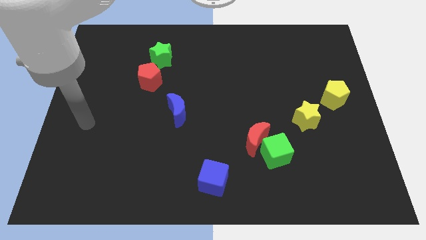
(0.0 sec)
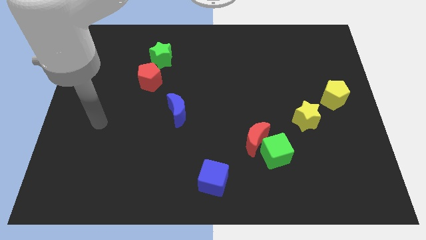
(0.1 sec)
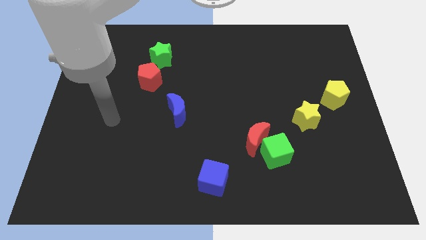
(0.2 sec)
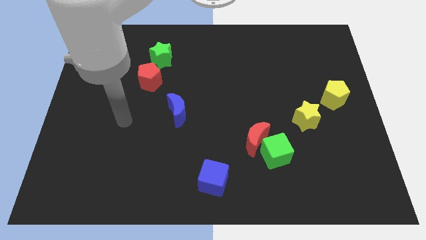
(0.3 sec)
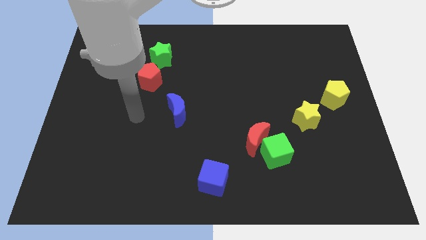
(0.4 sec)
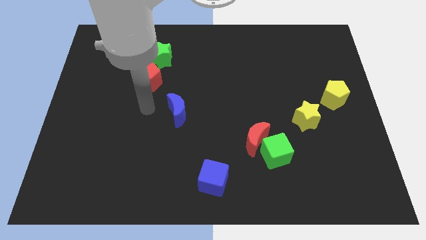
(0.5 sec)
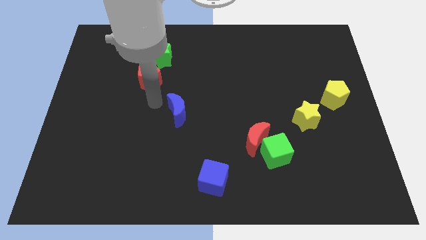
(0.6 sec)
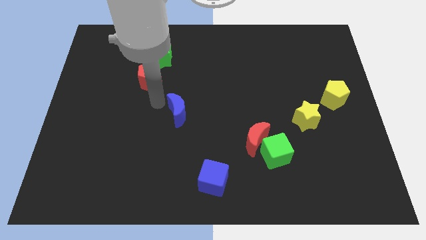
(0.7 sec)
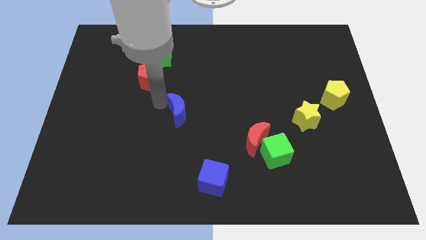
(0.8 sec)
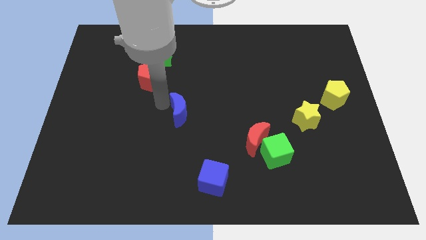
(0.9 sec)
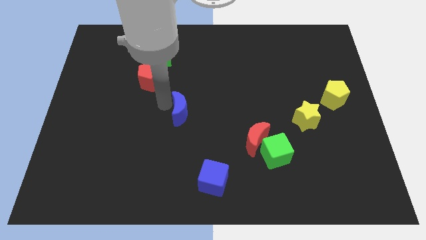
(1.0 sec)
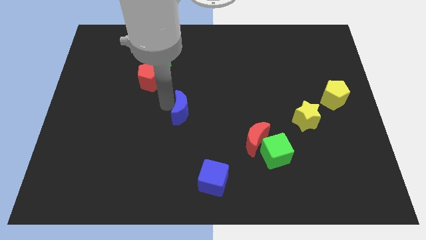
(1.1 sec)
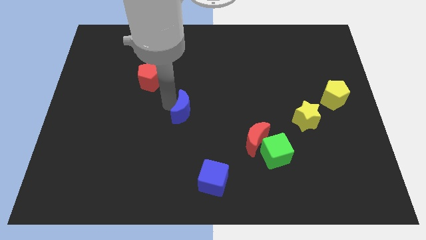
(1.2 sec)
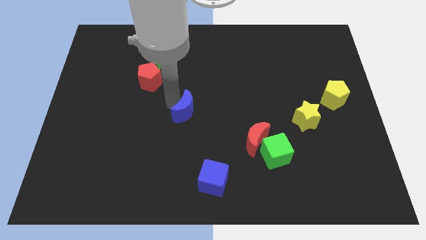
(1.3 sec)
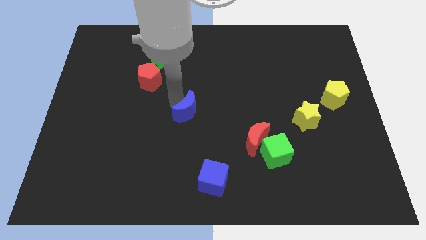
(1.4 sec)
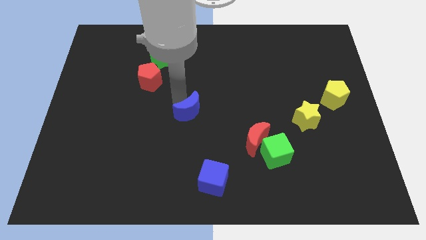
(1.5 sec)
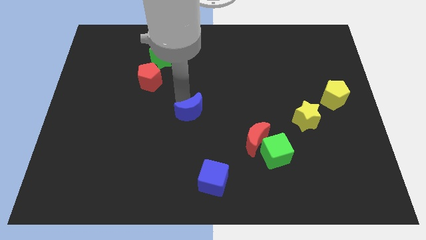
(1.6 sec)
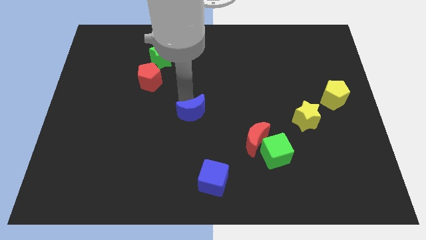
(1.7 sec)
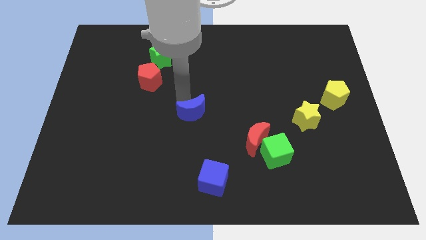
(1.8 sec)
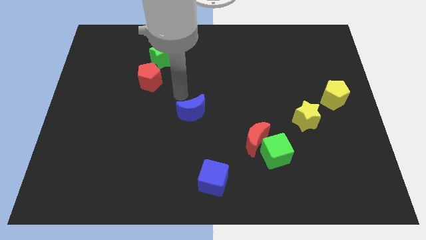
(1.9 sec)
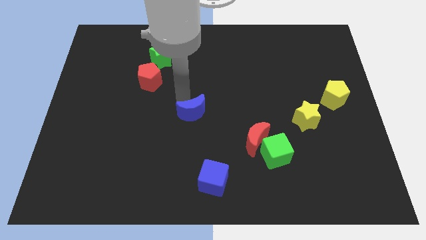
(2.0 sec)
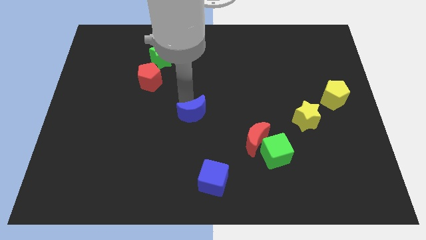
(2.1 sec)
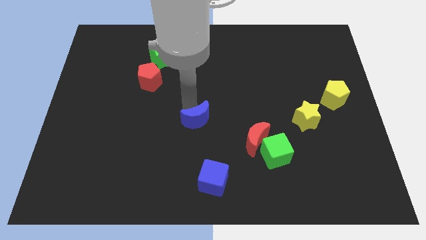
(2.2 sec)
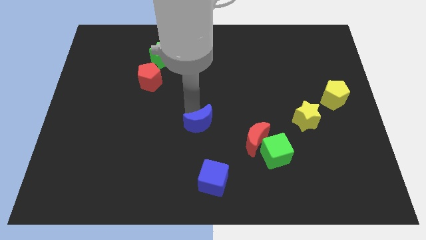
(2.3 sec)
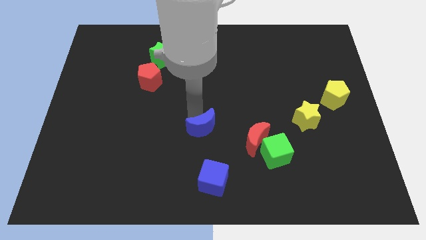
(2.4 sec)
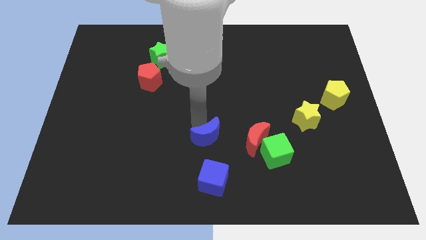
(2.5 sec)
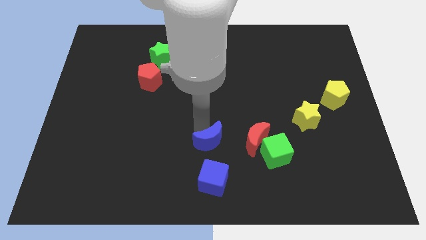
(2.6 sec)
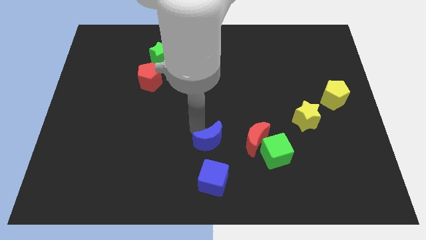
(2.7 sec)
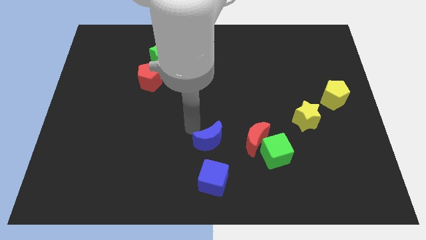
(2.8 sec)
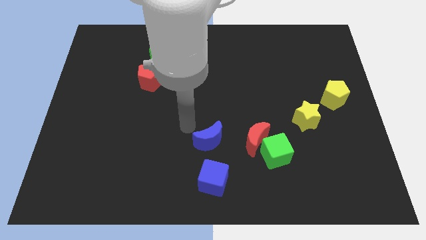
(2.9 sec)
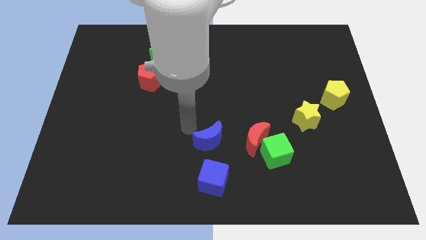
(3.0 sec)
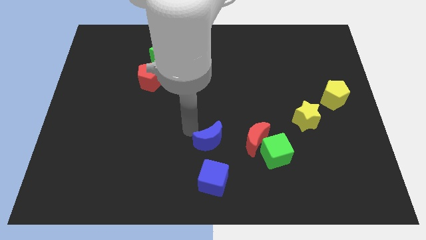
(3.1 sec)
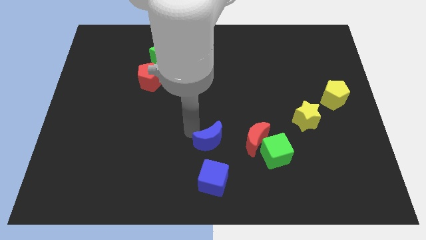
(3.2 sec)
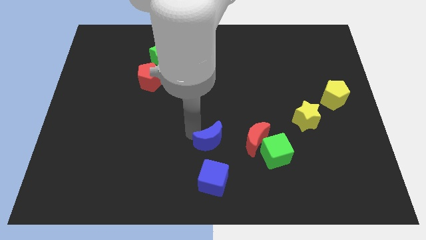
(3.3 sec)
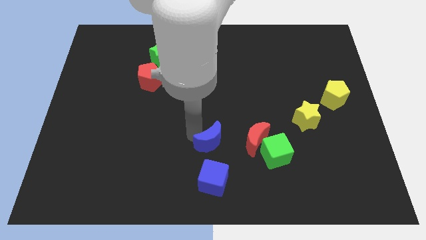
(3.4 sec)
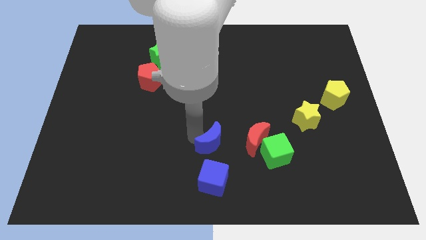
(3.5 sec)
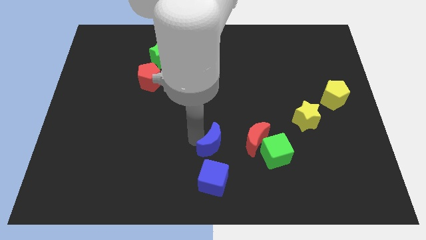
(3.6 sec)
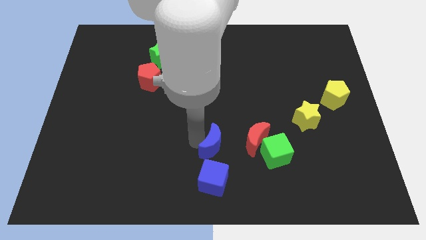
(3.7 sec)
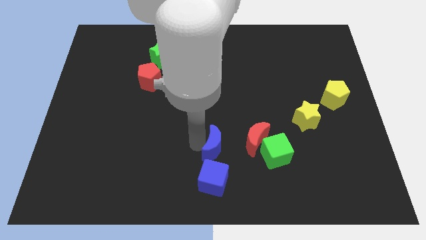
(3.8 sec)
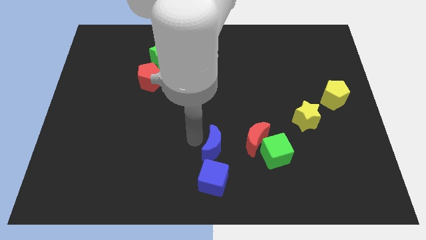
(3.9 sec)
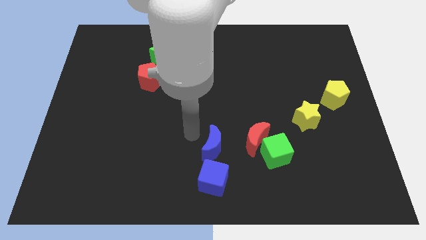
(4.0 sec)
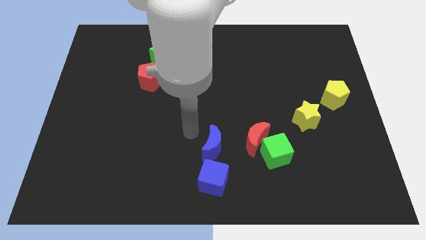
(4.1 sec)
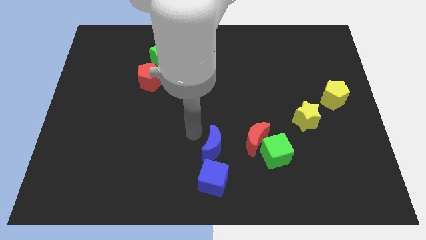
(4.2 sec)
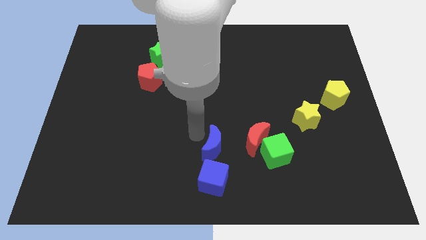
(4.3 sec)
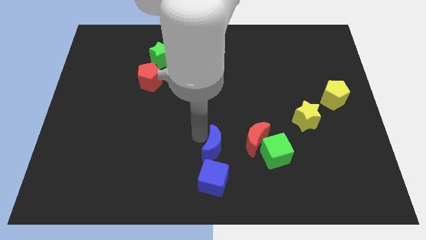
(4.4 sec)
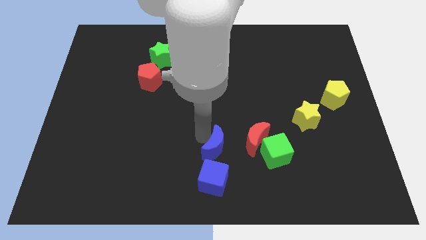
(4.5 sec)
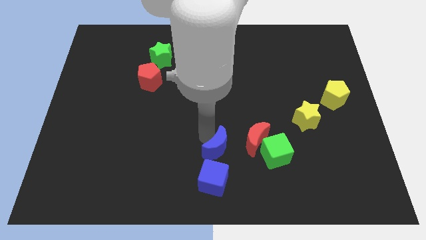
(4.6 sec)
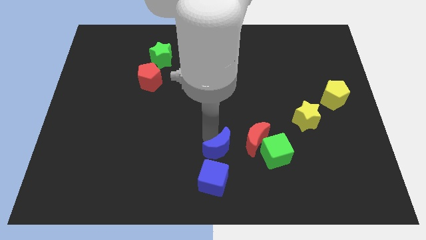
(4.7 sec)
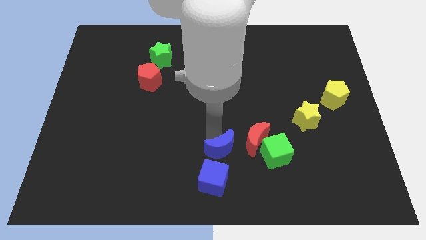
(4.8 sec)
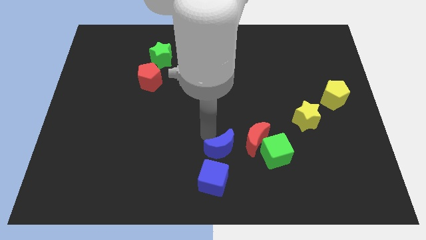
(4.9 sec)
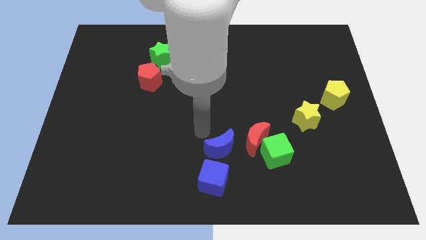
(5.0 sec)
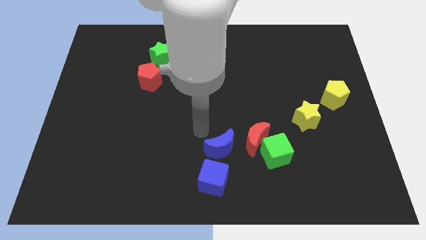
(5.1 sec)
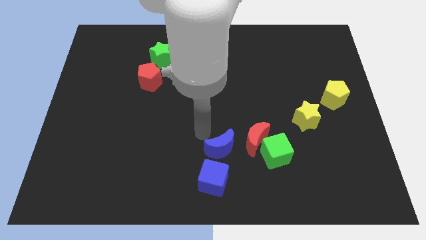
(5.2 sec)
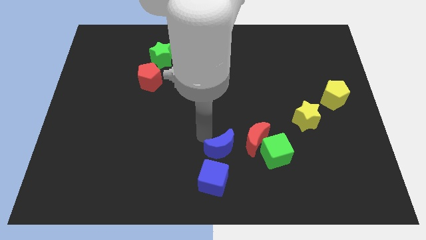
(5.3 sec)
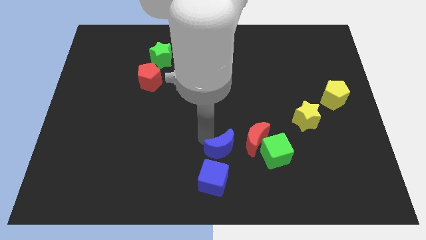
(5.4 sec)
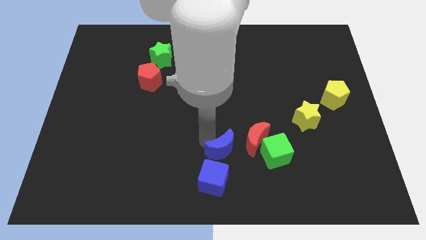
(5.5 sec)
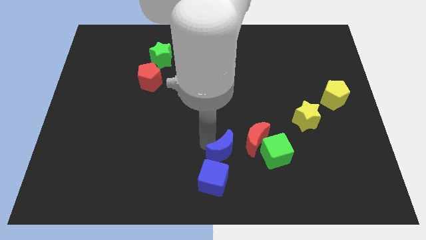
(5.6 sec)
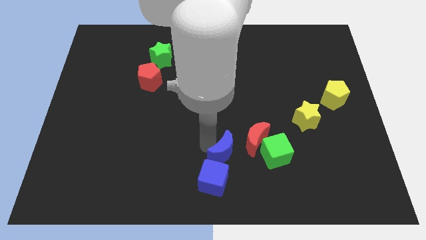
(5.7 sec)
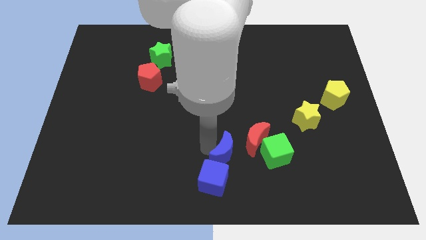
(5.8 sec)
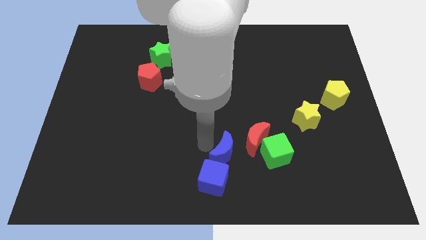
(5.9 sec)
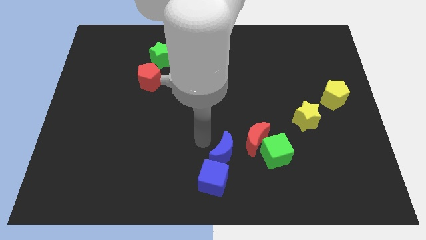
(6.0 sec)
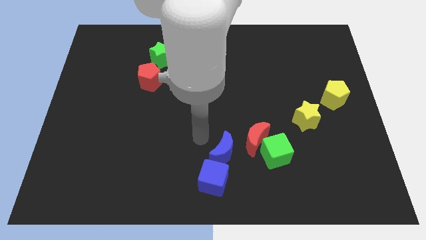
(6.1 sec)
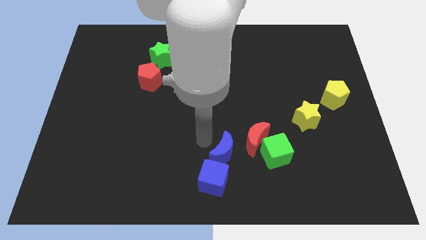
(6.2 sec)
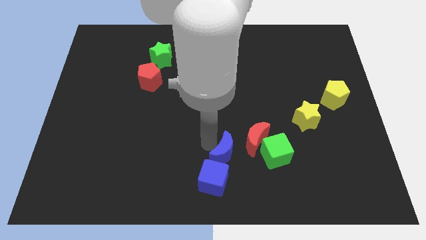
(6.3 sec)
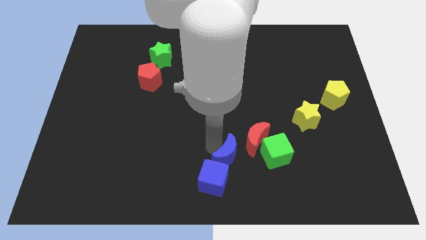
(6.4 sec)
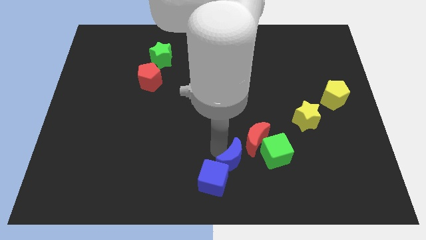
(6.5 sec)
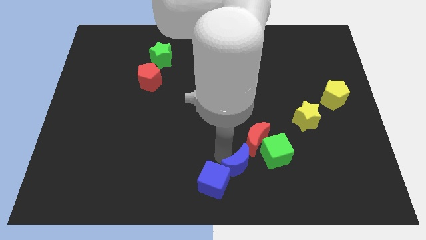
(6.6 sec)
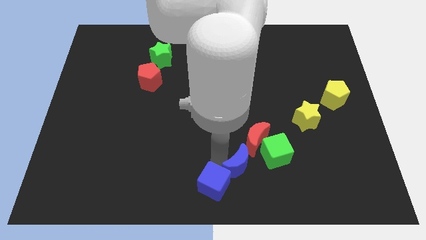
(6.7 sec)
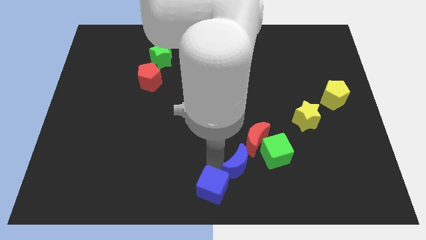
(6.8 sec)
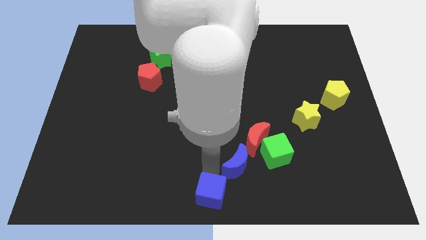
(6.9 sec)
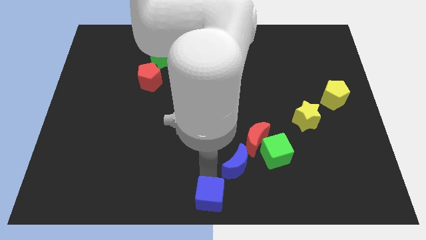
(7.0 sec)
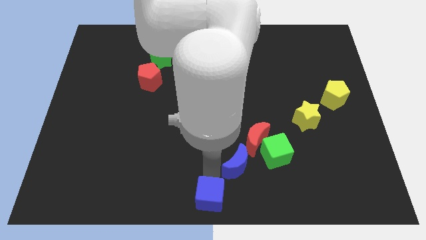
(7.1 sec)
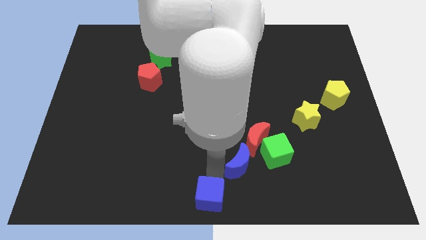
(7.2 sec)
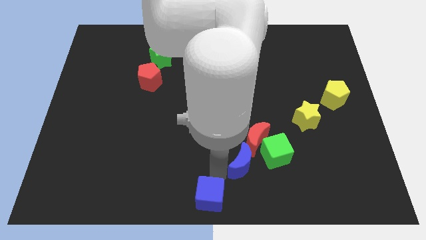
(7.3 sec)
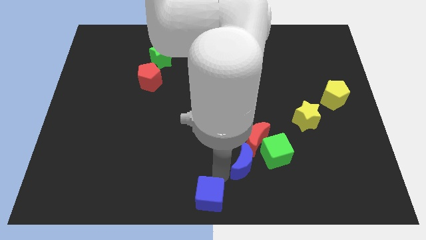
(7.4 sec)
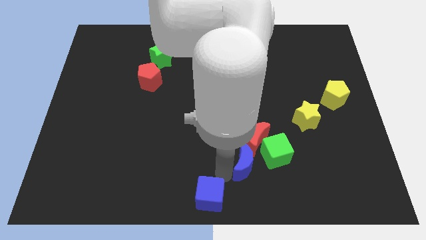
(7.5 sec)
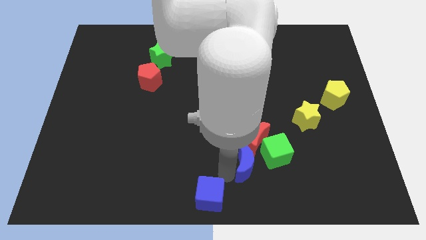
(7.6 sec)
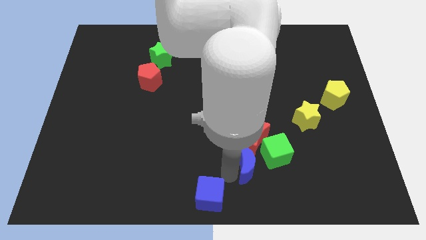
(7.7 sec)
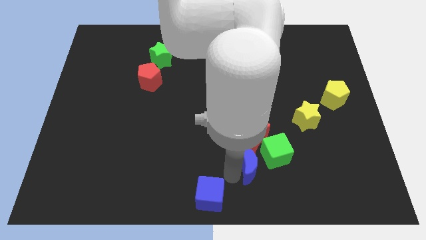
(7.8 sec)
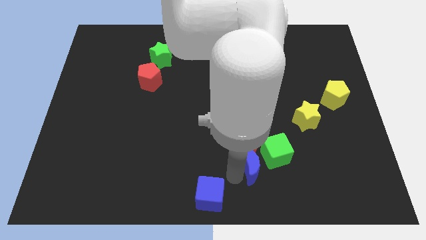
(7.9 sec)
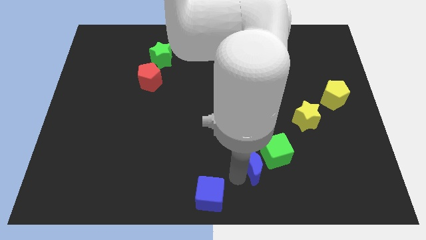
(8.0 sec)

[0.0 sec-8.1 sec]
push the blue moon to the green cube
